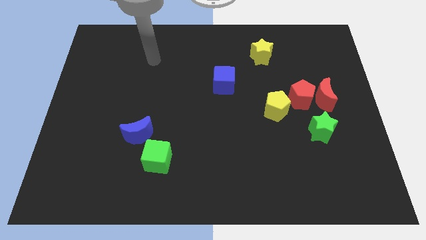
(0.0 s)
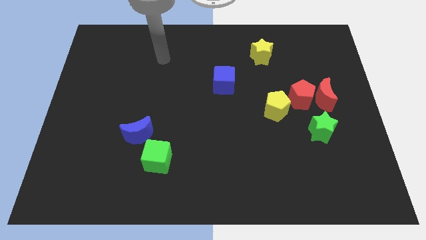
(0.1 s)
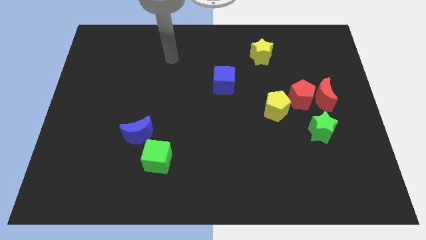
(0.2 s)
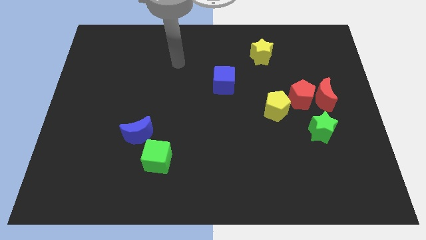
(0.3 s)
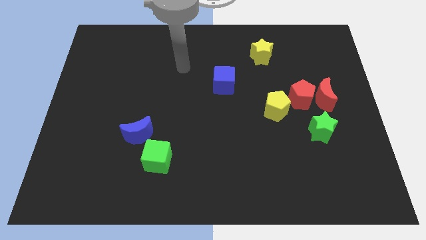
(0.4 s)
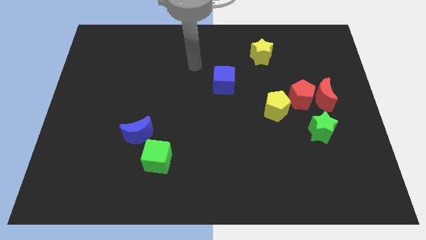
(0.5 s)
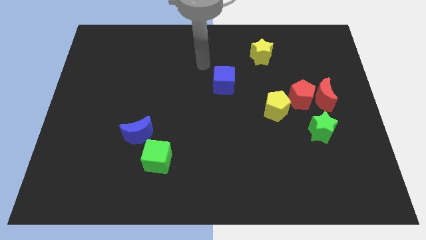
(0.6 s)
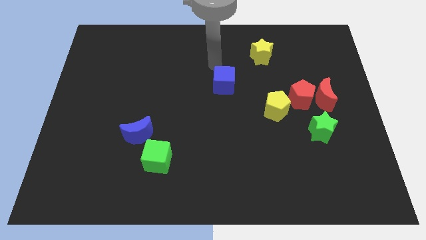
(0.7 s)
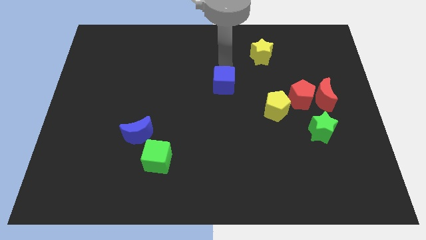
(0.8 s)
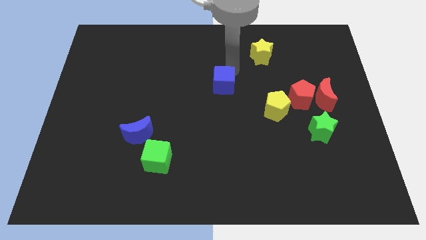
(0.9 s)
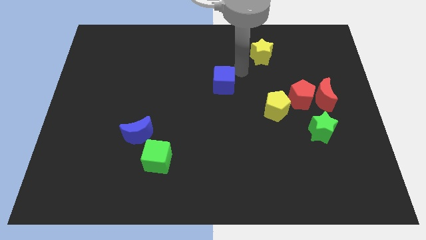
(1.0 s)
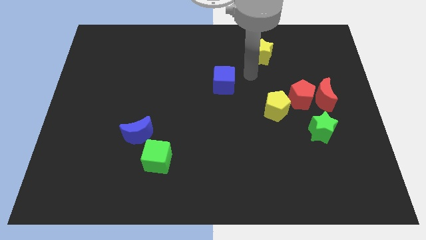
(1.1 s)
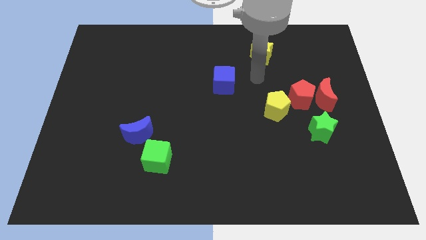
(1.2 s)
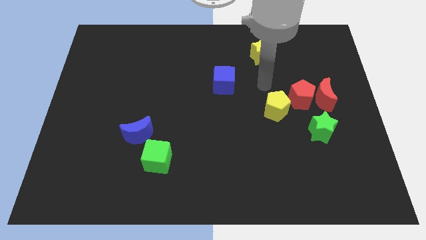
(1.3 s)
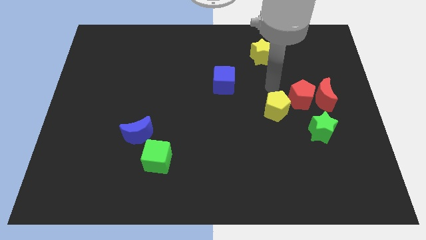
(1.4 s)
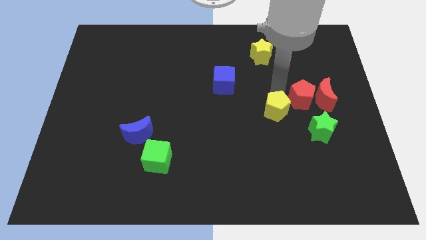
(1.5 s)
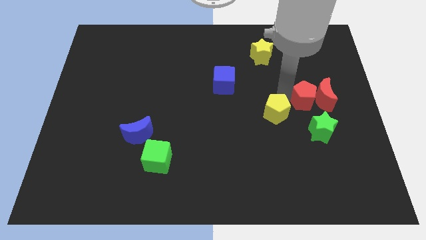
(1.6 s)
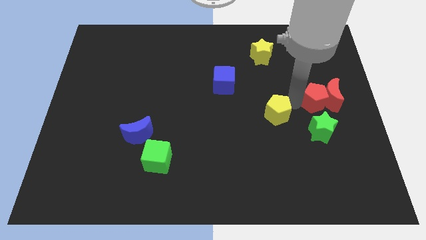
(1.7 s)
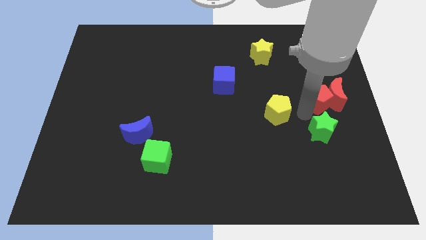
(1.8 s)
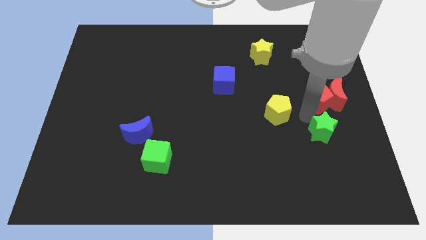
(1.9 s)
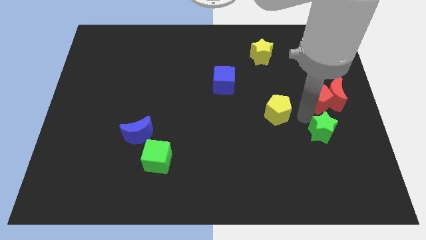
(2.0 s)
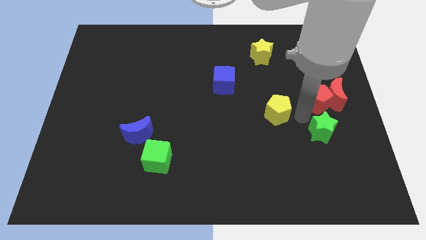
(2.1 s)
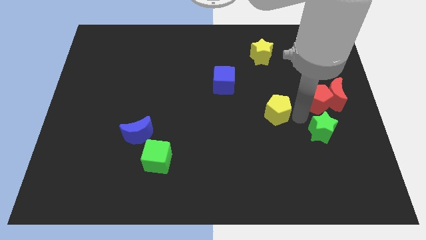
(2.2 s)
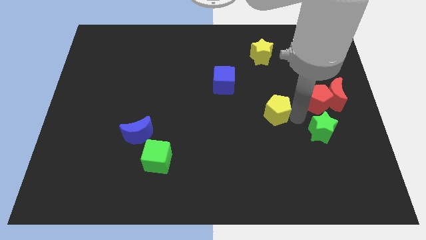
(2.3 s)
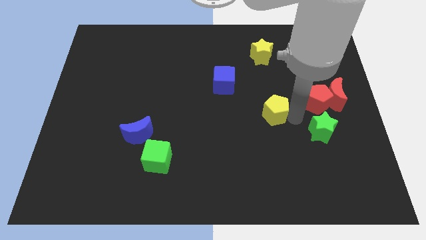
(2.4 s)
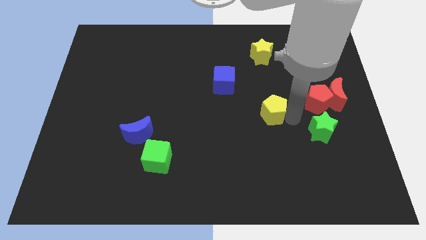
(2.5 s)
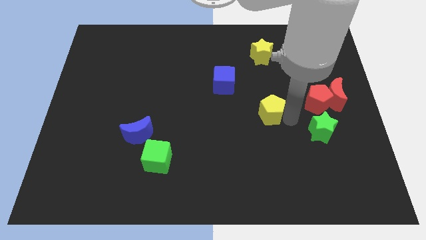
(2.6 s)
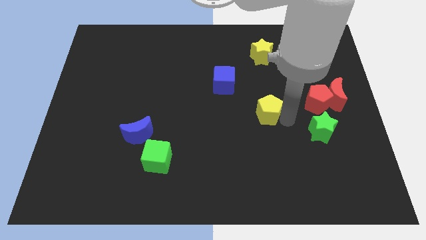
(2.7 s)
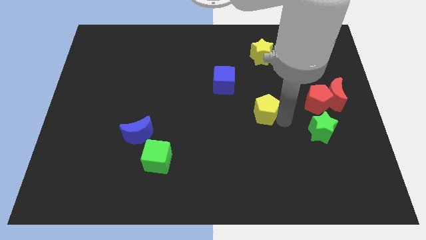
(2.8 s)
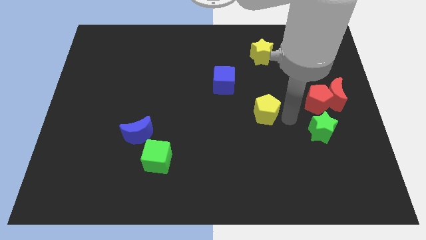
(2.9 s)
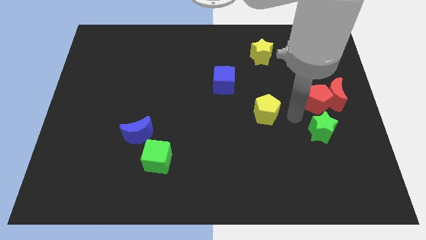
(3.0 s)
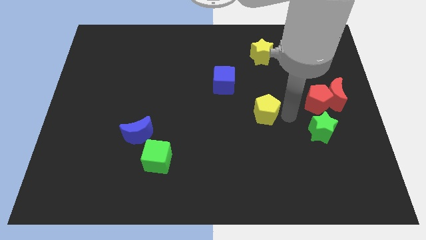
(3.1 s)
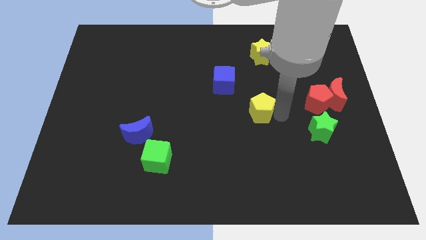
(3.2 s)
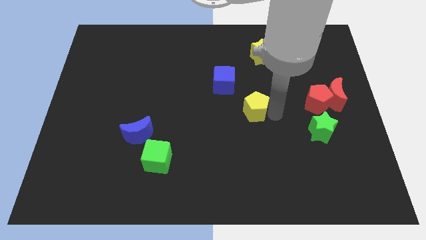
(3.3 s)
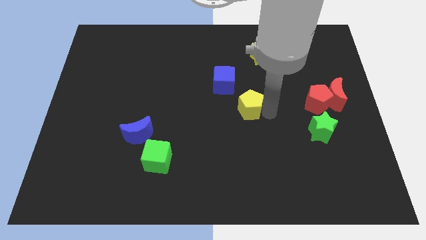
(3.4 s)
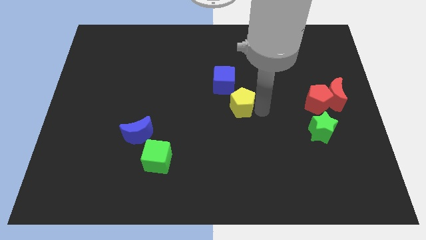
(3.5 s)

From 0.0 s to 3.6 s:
push the yellow pentagon left a little bit

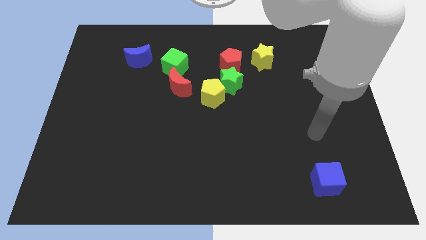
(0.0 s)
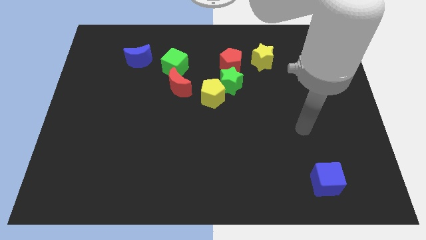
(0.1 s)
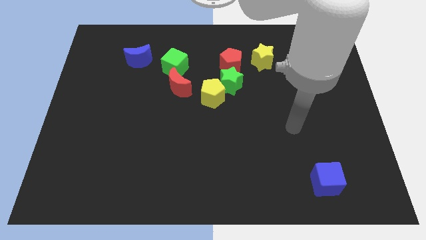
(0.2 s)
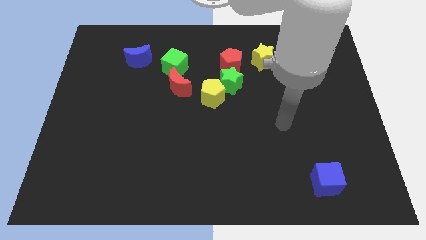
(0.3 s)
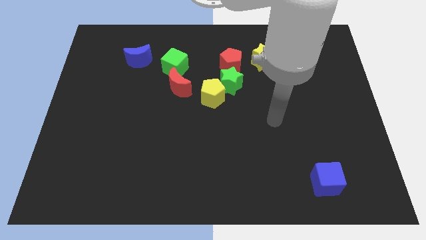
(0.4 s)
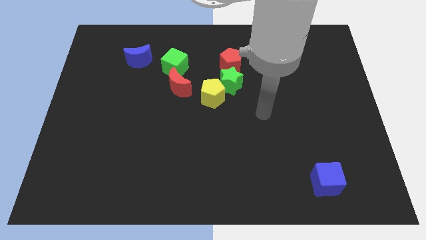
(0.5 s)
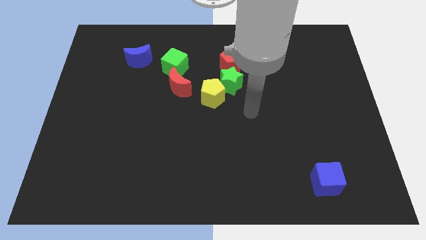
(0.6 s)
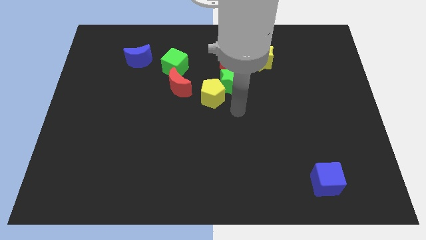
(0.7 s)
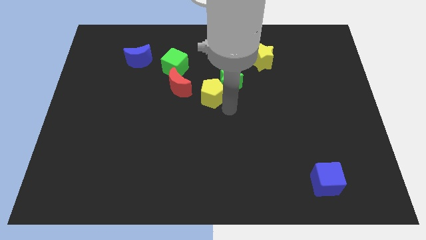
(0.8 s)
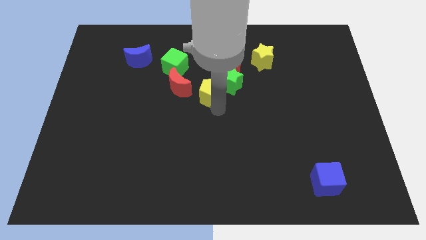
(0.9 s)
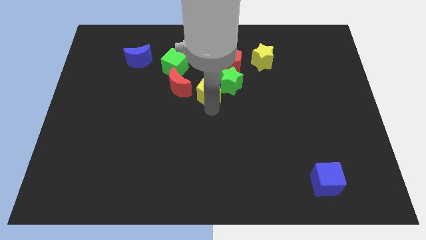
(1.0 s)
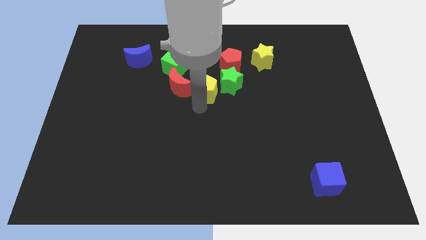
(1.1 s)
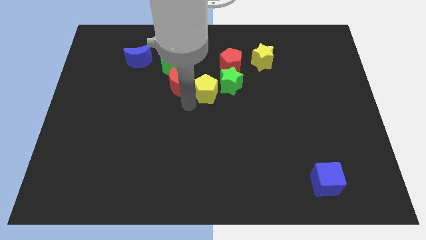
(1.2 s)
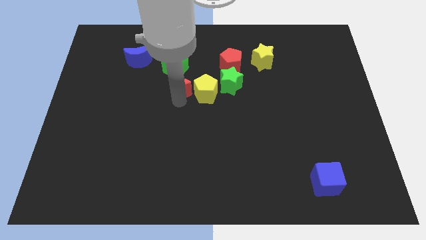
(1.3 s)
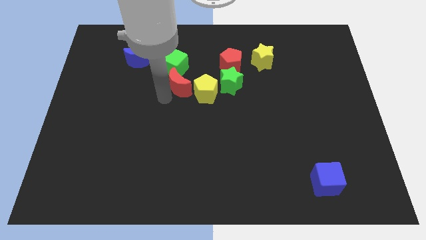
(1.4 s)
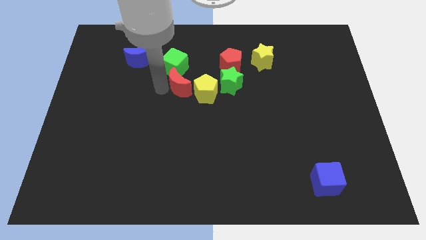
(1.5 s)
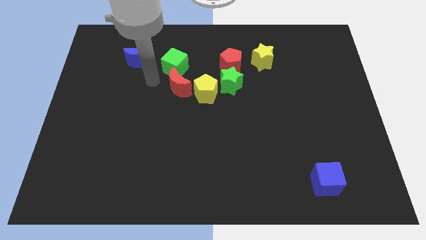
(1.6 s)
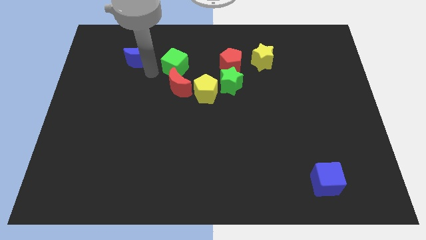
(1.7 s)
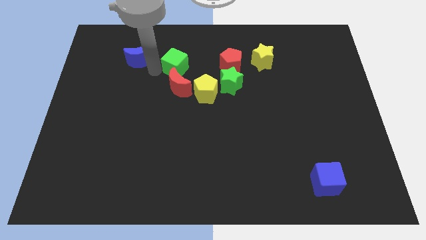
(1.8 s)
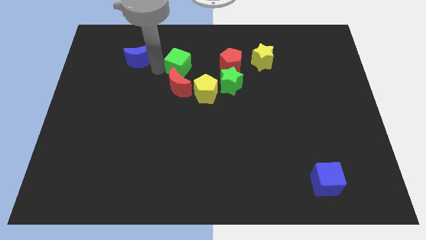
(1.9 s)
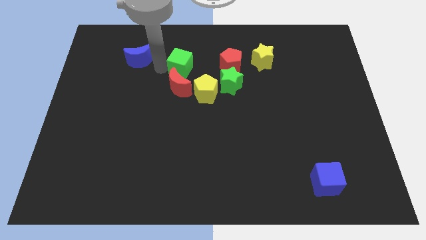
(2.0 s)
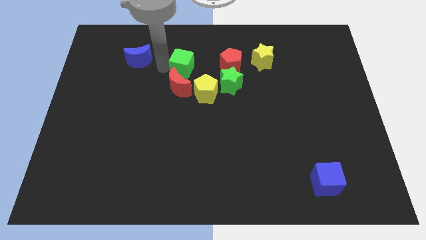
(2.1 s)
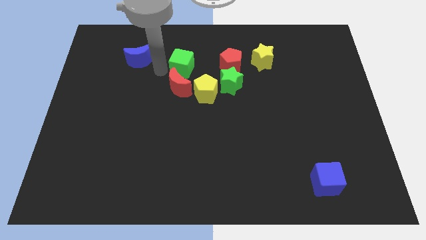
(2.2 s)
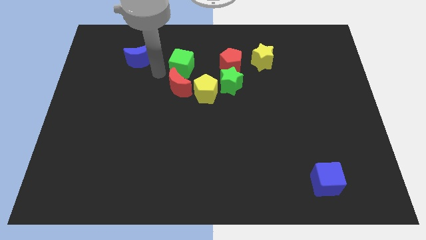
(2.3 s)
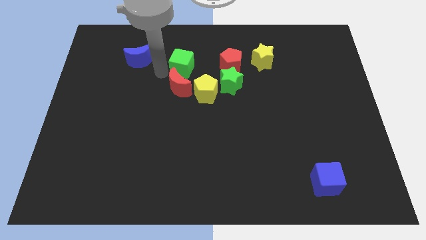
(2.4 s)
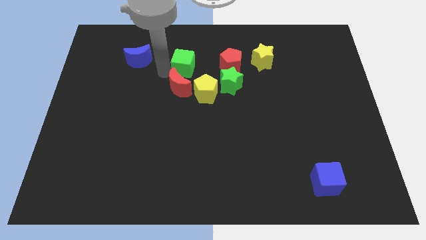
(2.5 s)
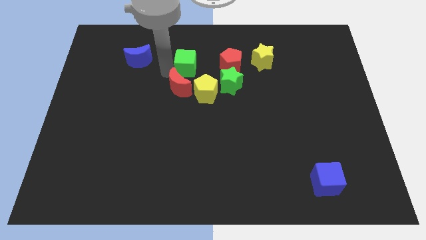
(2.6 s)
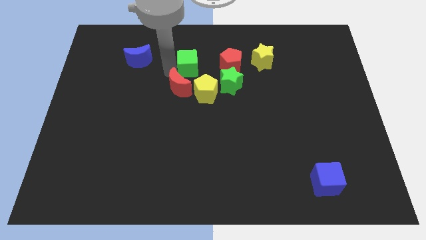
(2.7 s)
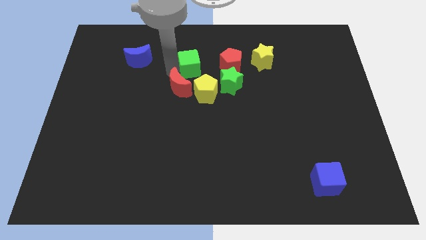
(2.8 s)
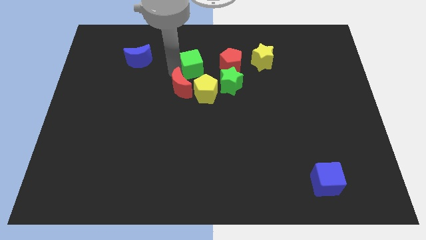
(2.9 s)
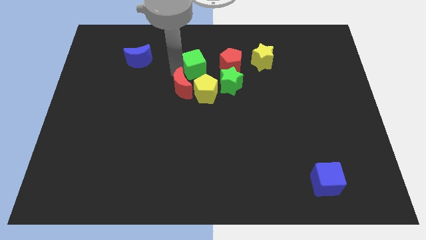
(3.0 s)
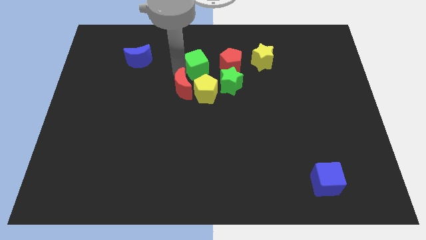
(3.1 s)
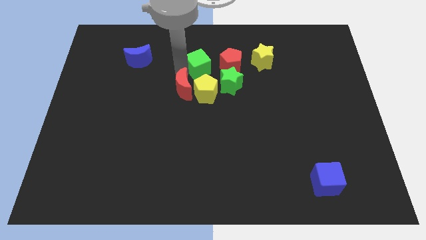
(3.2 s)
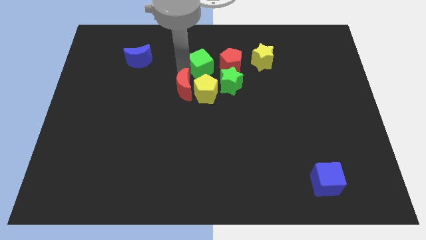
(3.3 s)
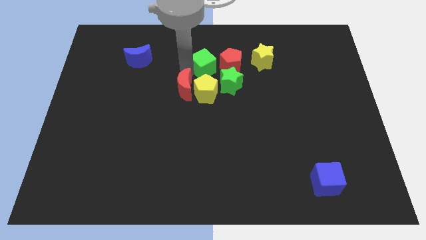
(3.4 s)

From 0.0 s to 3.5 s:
slide the green cube a bit to the right

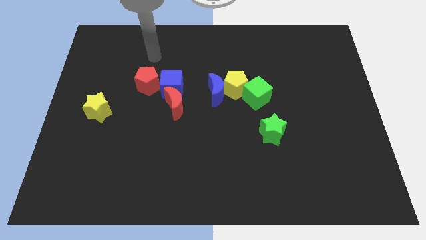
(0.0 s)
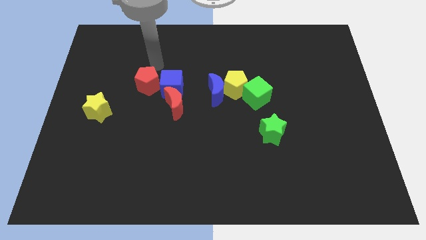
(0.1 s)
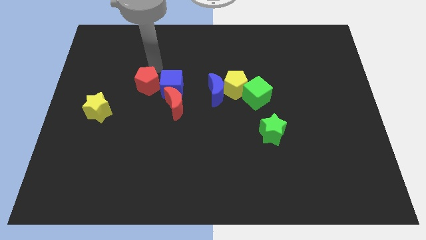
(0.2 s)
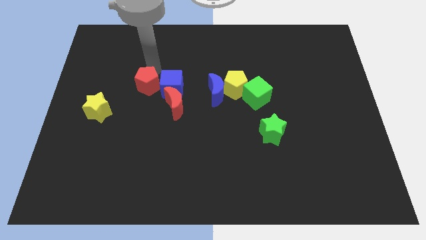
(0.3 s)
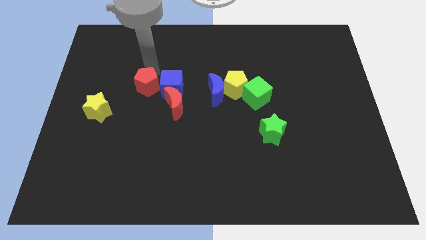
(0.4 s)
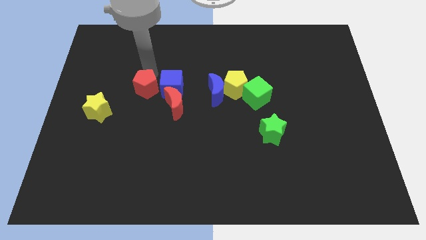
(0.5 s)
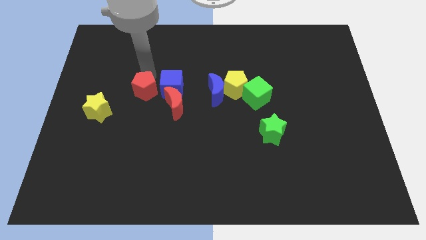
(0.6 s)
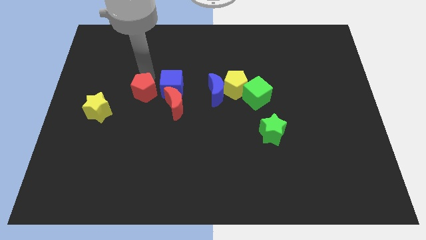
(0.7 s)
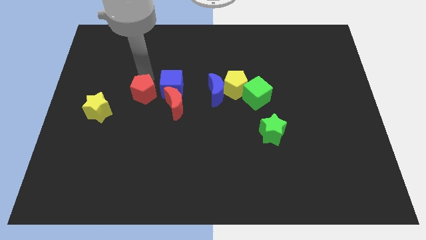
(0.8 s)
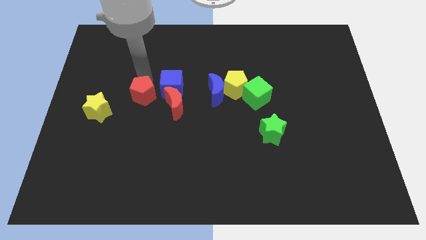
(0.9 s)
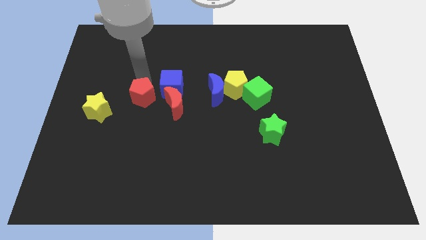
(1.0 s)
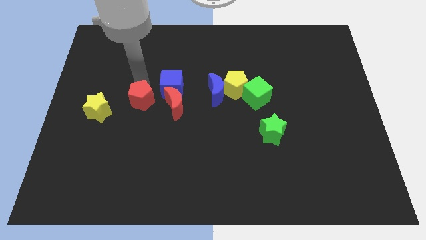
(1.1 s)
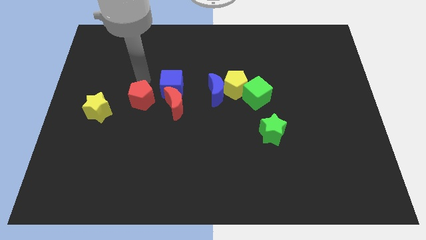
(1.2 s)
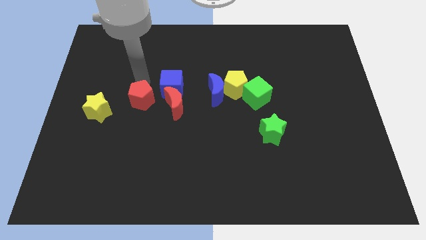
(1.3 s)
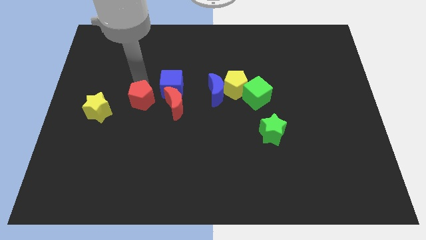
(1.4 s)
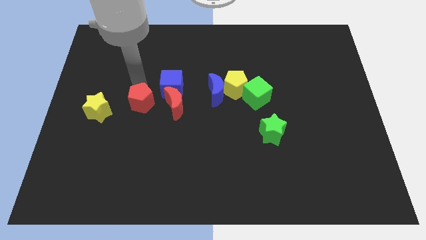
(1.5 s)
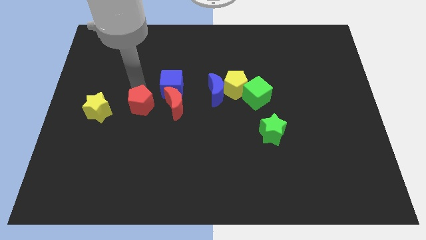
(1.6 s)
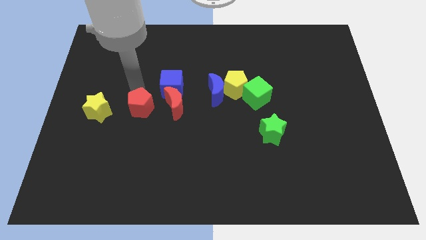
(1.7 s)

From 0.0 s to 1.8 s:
slightly slide the red pentagon downwards
